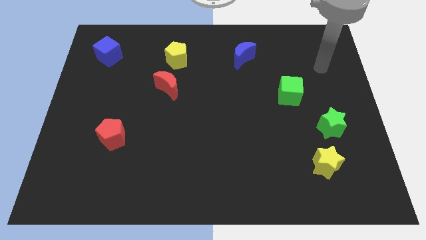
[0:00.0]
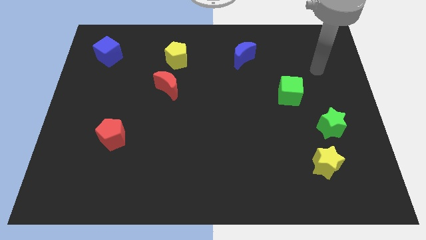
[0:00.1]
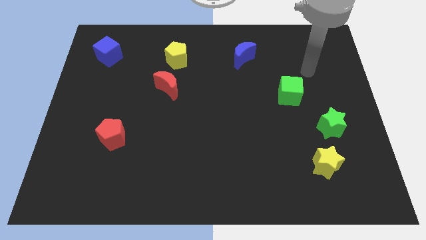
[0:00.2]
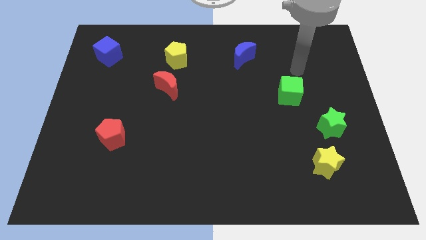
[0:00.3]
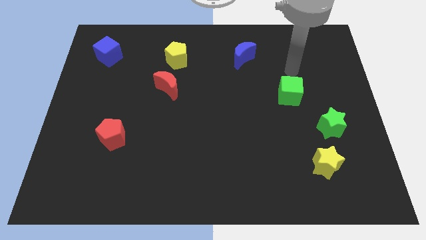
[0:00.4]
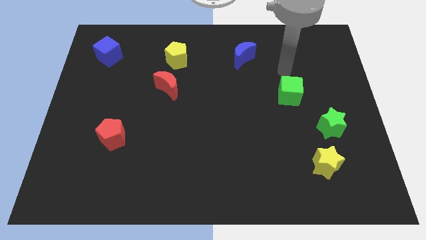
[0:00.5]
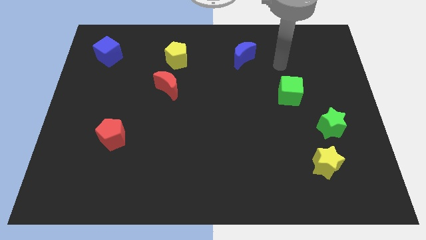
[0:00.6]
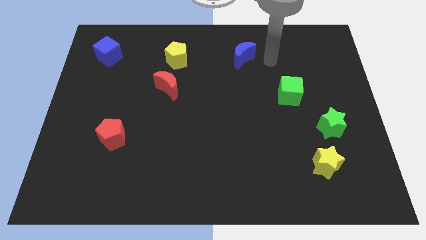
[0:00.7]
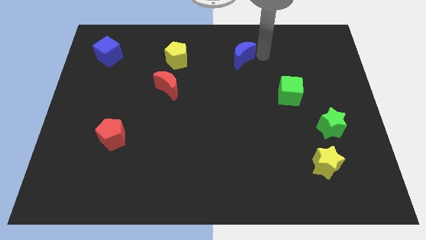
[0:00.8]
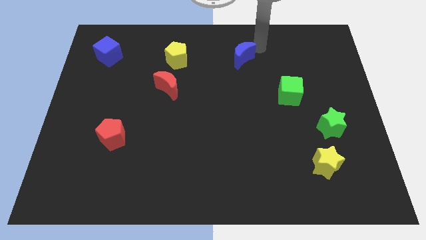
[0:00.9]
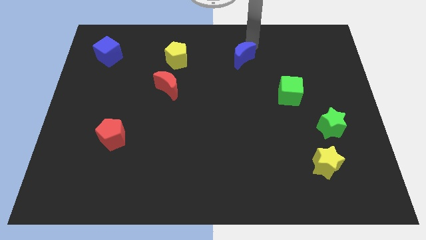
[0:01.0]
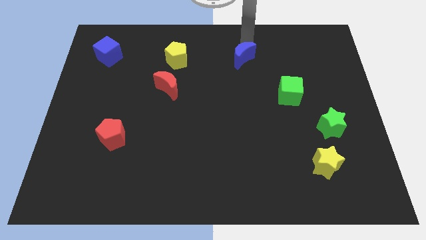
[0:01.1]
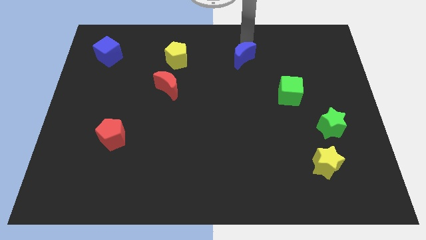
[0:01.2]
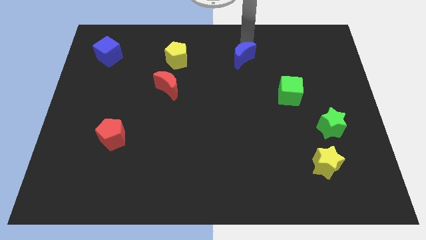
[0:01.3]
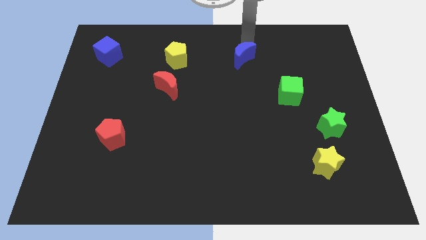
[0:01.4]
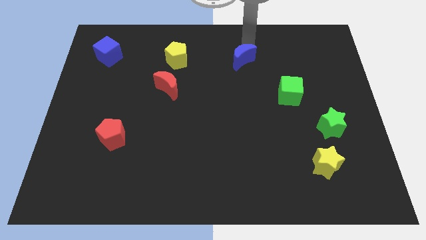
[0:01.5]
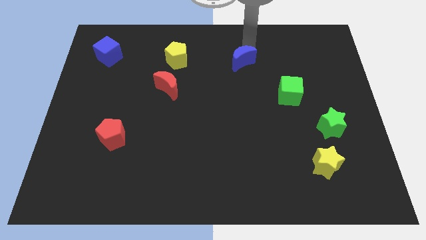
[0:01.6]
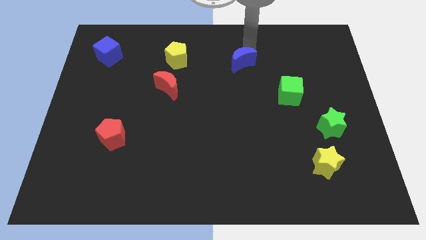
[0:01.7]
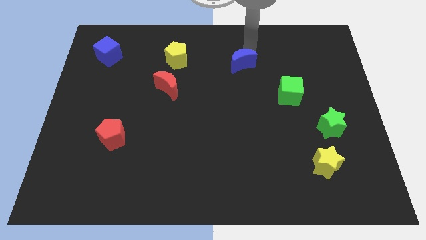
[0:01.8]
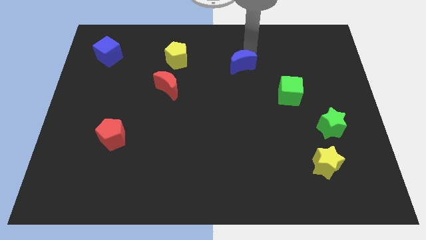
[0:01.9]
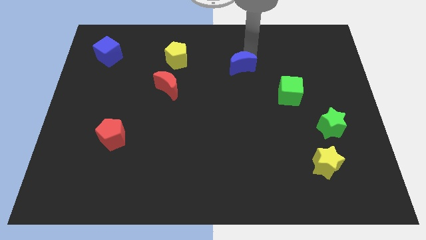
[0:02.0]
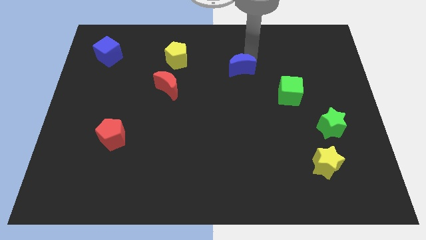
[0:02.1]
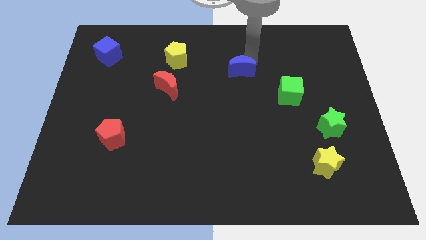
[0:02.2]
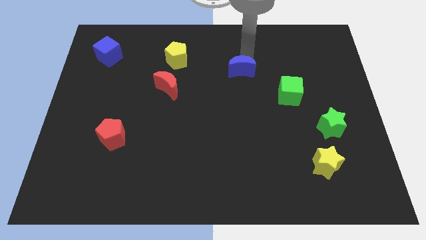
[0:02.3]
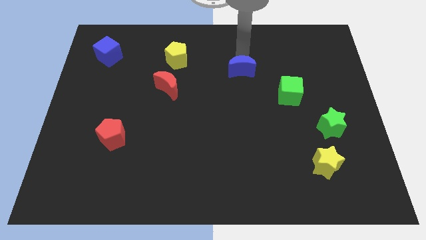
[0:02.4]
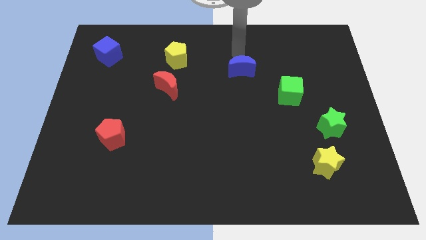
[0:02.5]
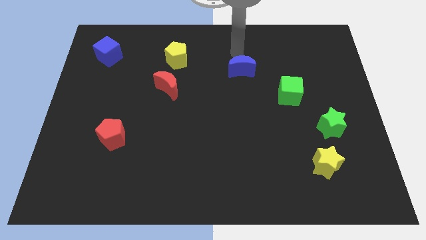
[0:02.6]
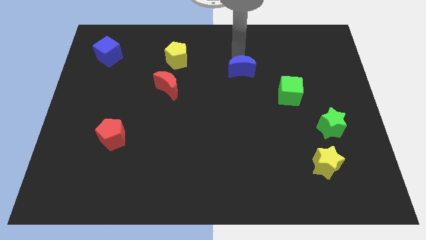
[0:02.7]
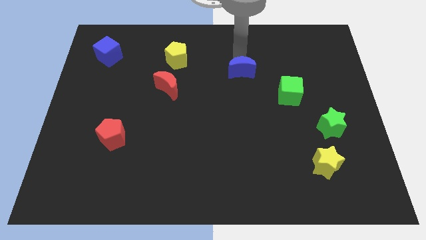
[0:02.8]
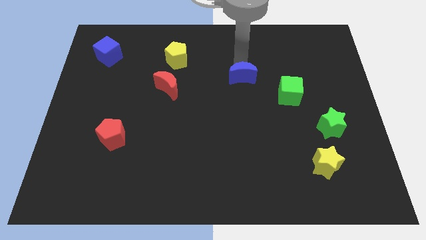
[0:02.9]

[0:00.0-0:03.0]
push the blue moon slightly downwards

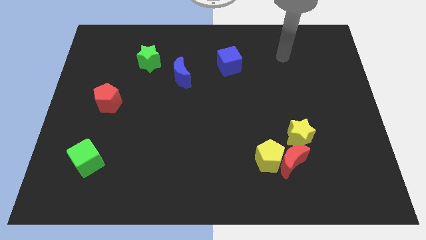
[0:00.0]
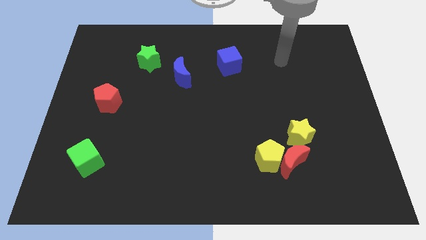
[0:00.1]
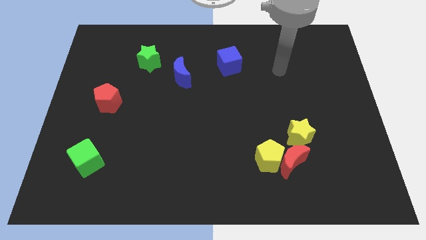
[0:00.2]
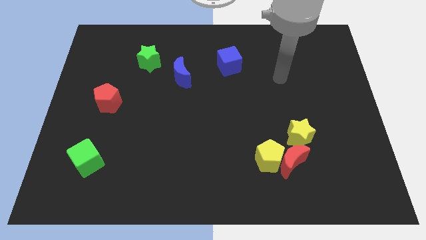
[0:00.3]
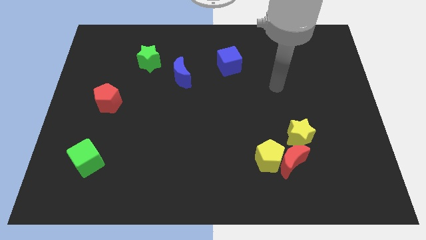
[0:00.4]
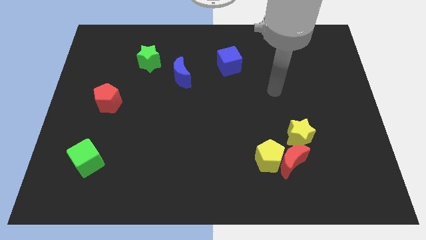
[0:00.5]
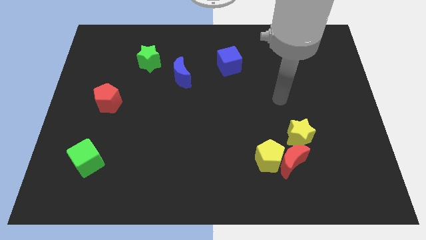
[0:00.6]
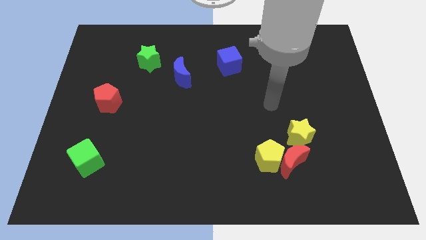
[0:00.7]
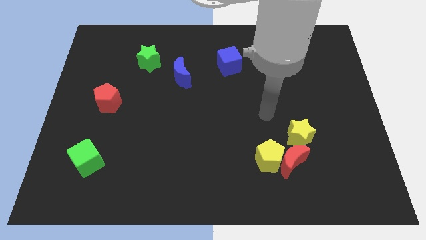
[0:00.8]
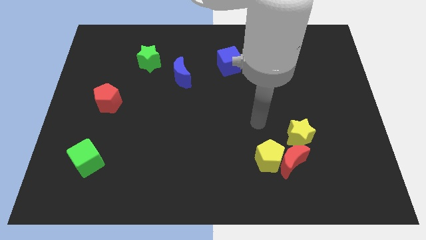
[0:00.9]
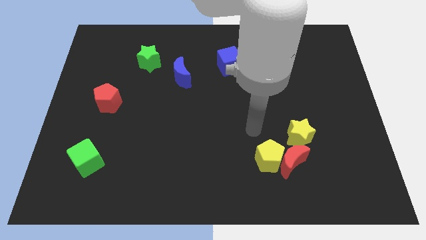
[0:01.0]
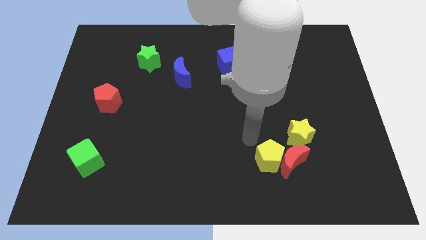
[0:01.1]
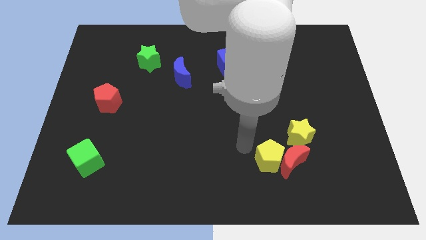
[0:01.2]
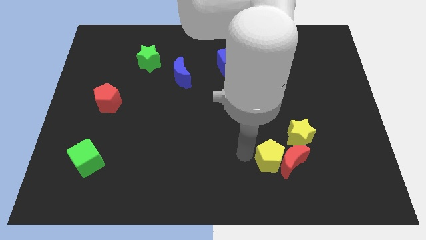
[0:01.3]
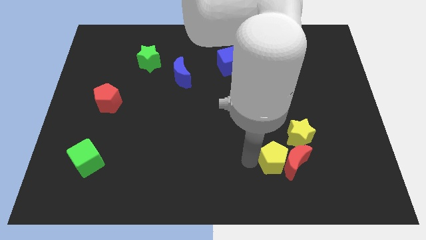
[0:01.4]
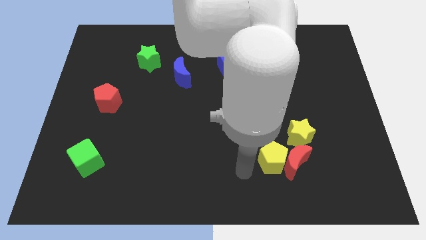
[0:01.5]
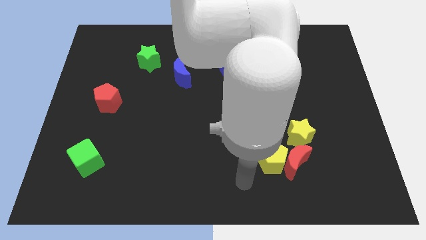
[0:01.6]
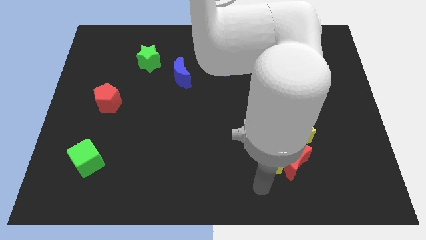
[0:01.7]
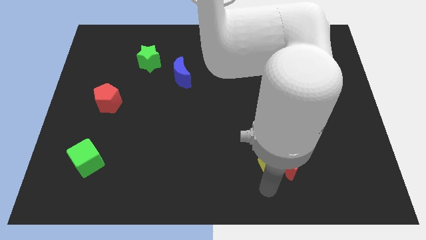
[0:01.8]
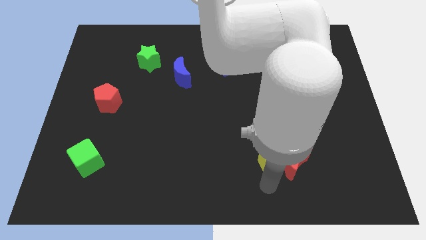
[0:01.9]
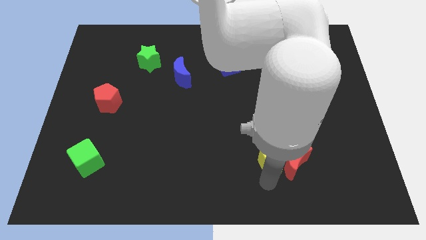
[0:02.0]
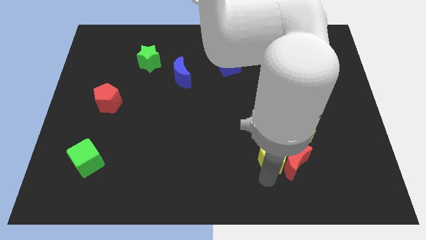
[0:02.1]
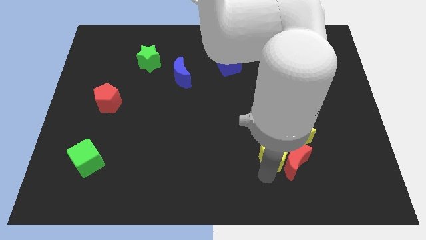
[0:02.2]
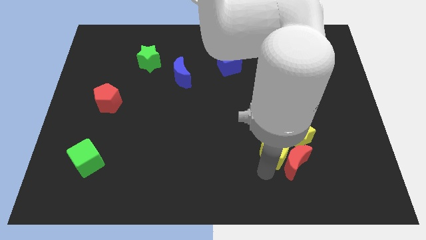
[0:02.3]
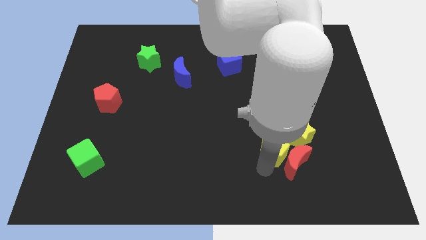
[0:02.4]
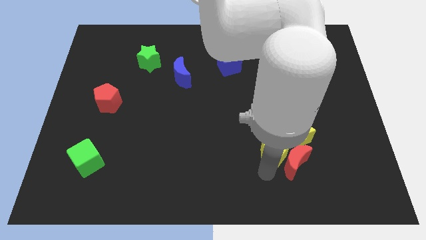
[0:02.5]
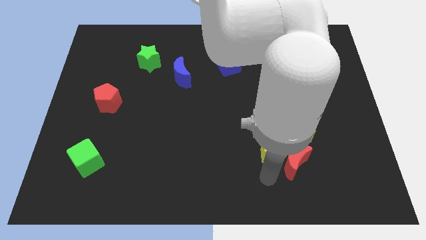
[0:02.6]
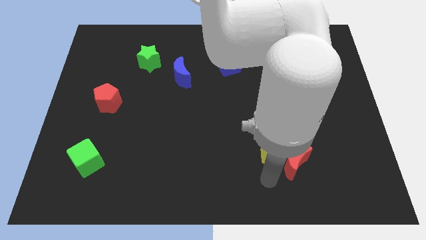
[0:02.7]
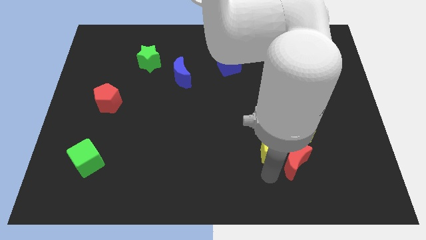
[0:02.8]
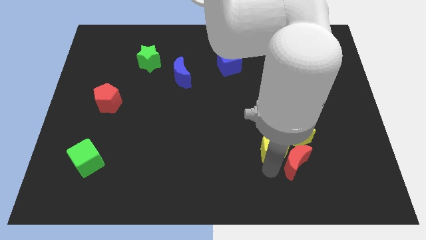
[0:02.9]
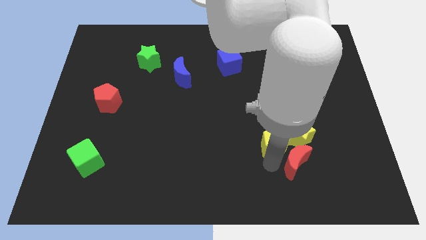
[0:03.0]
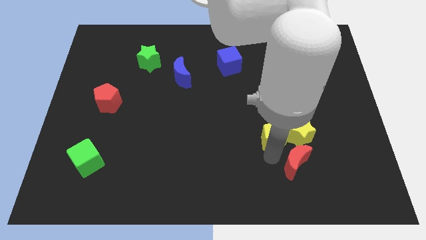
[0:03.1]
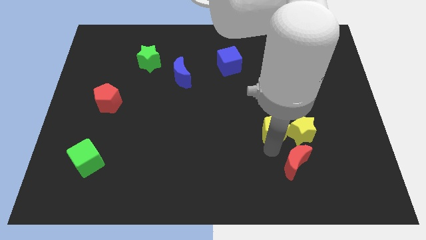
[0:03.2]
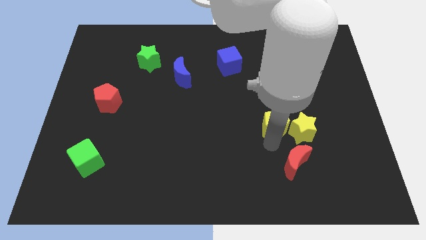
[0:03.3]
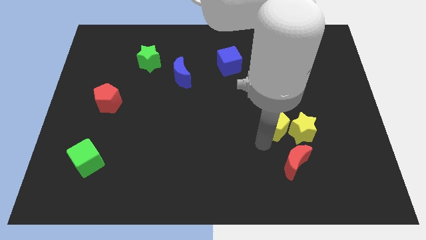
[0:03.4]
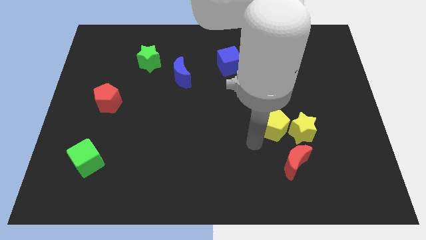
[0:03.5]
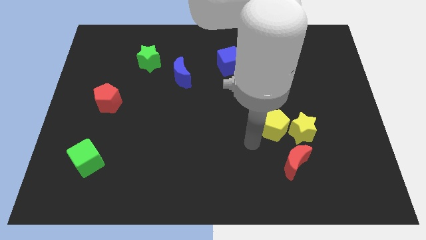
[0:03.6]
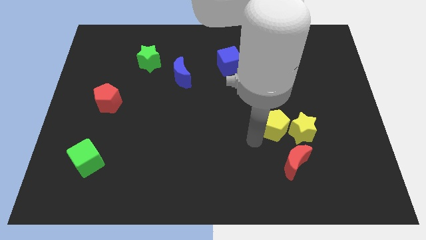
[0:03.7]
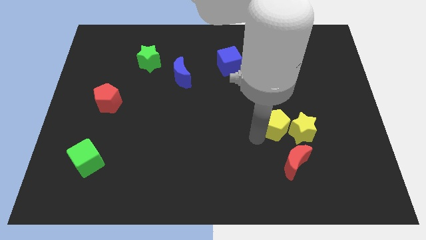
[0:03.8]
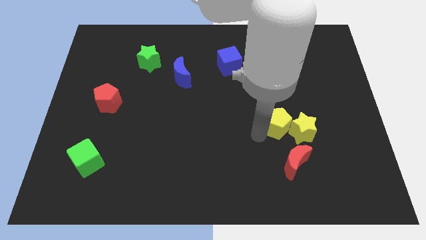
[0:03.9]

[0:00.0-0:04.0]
move the yellow pentagon up and right a little bit

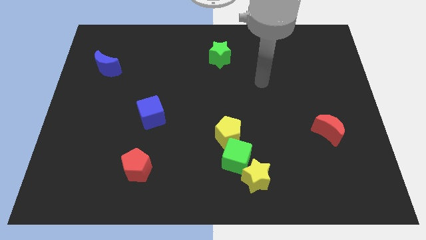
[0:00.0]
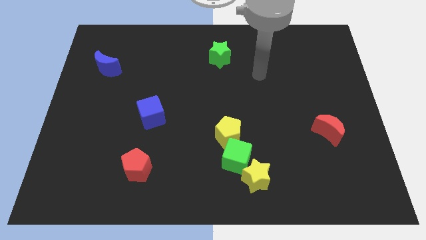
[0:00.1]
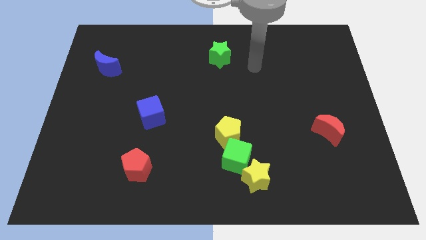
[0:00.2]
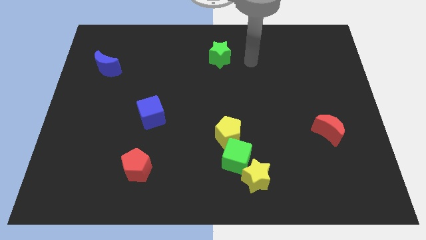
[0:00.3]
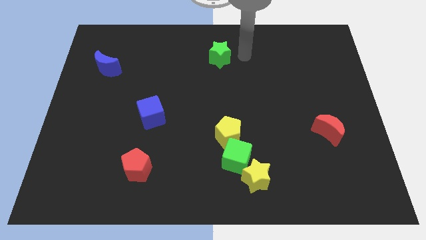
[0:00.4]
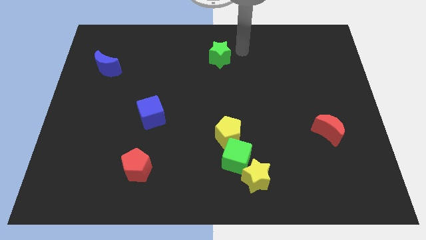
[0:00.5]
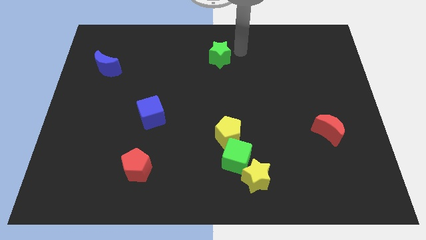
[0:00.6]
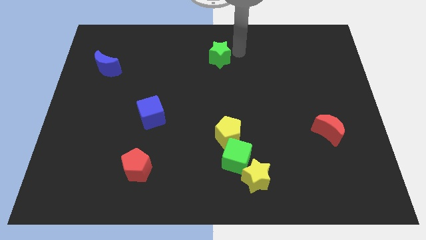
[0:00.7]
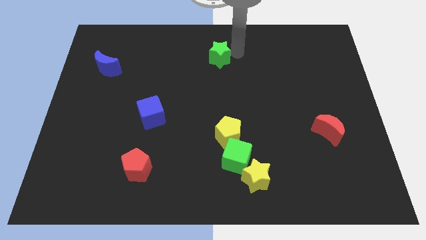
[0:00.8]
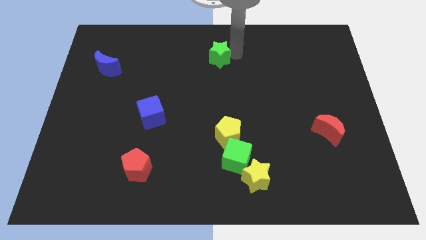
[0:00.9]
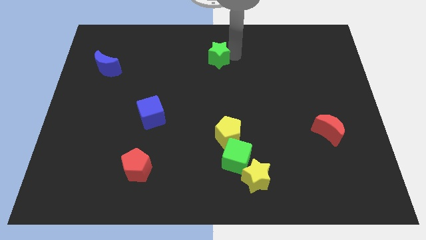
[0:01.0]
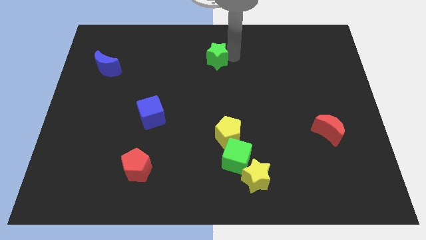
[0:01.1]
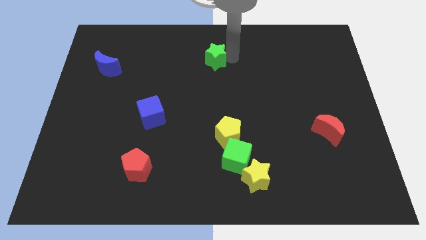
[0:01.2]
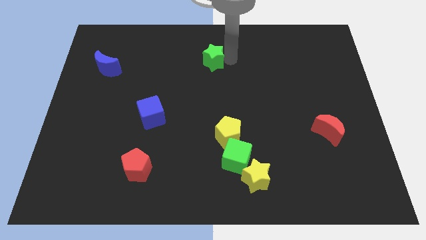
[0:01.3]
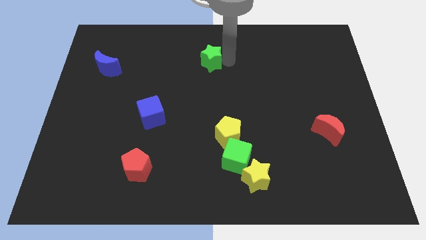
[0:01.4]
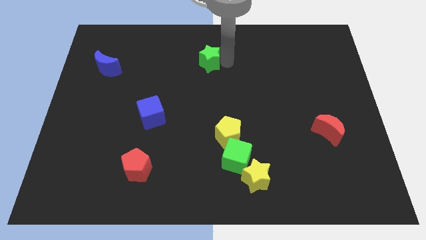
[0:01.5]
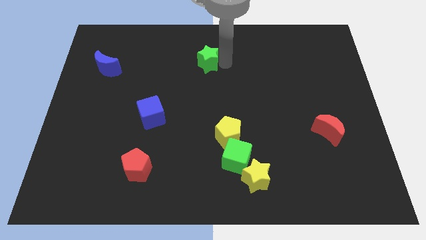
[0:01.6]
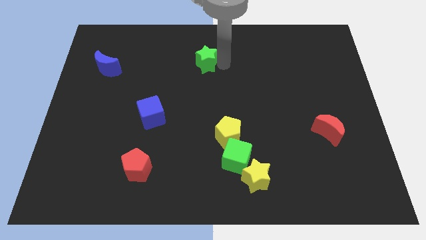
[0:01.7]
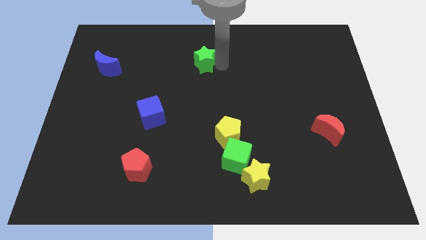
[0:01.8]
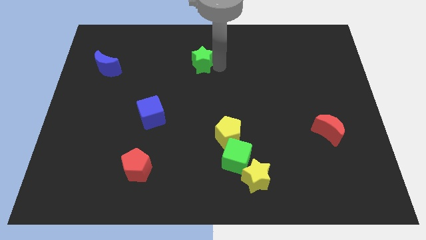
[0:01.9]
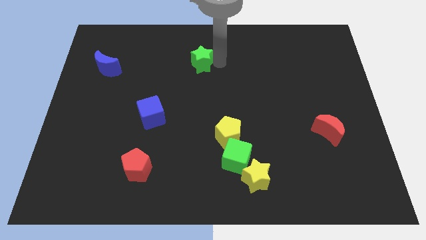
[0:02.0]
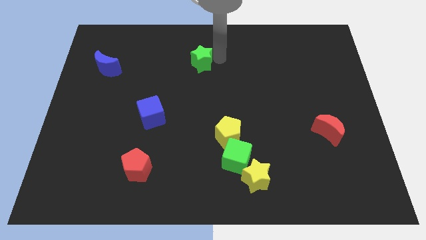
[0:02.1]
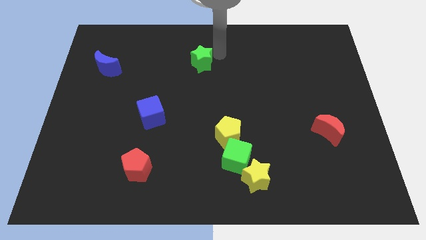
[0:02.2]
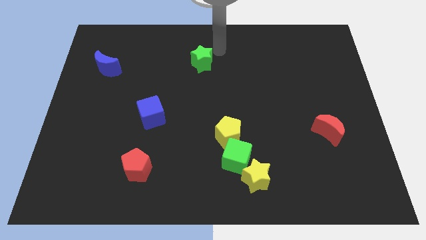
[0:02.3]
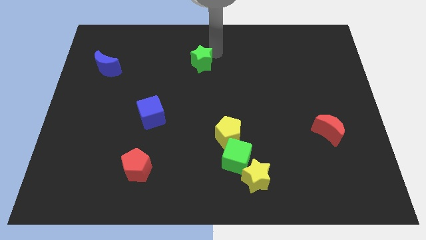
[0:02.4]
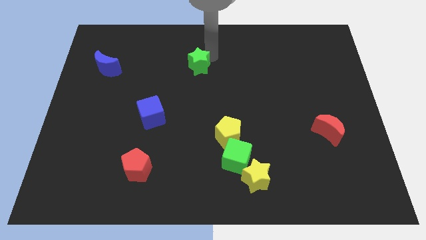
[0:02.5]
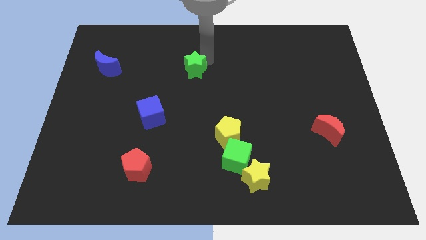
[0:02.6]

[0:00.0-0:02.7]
slightly push the green star down and then left
